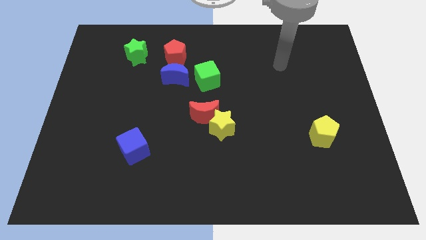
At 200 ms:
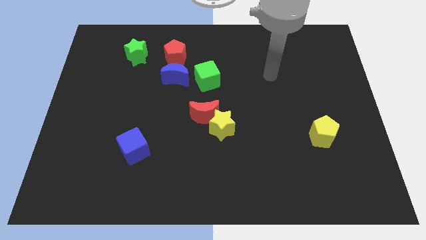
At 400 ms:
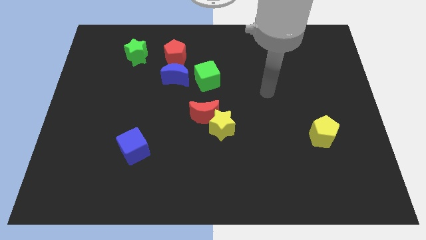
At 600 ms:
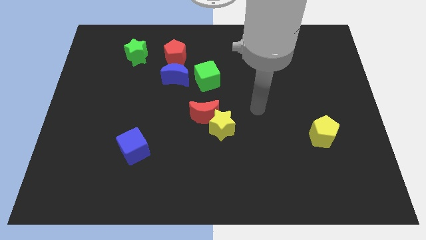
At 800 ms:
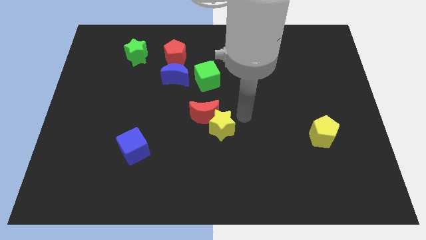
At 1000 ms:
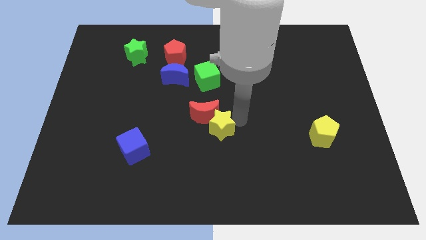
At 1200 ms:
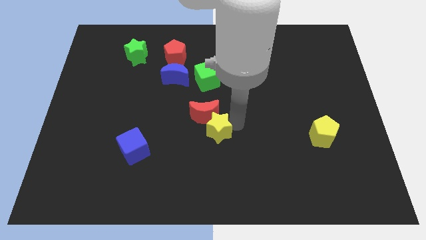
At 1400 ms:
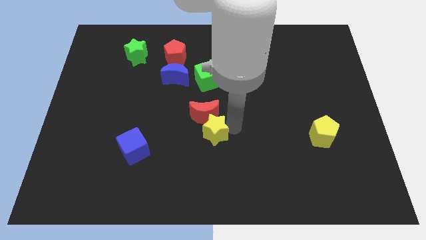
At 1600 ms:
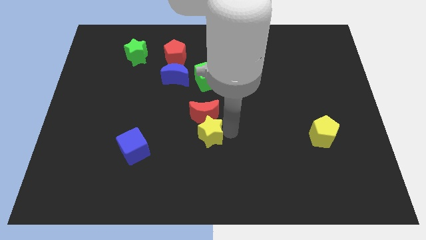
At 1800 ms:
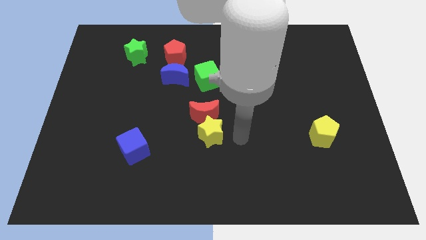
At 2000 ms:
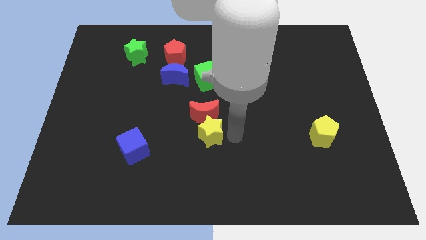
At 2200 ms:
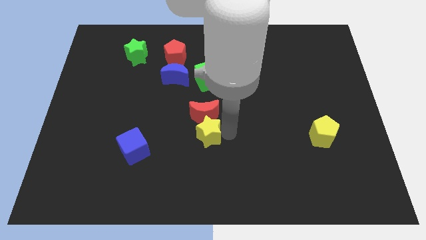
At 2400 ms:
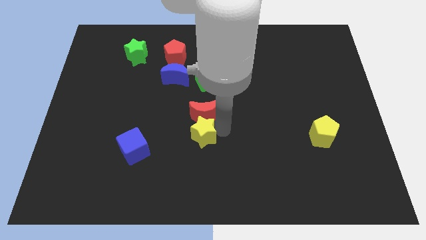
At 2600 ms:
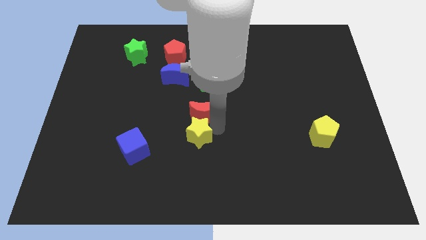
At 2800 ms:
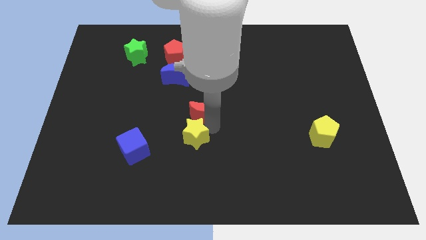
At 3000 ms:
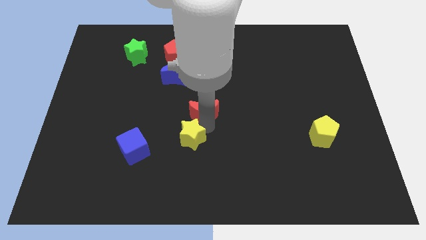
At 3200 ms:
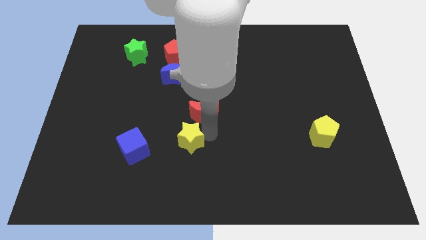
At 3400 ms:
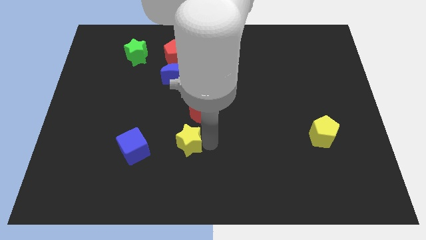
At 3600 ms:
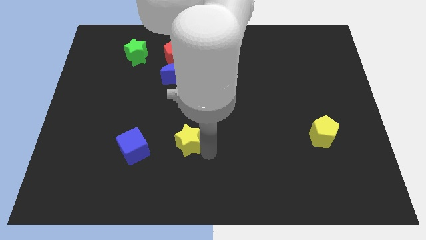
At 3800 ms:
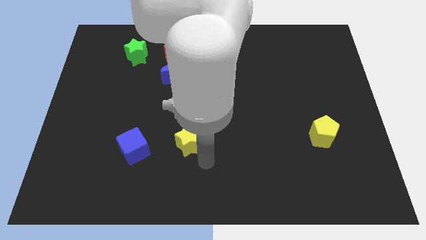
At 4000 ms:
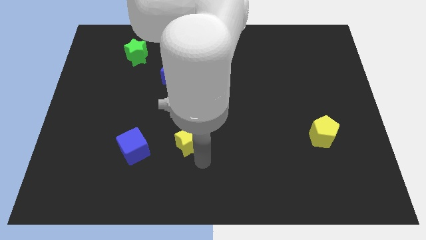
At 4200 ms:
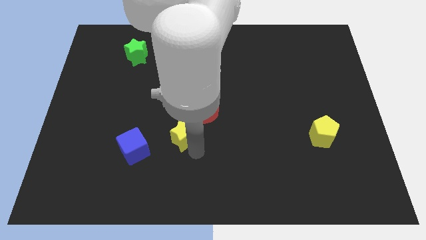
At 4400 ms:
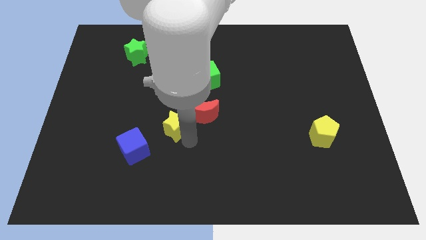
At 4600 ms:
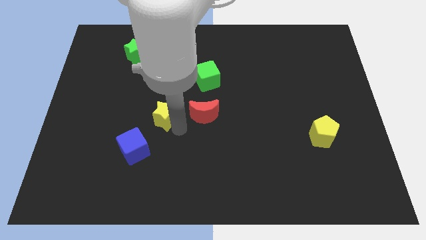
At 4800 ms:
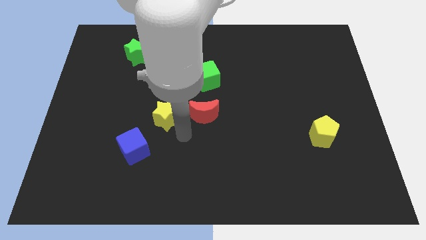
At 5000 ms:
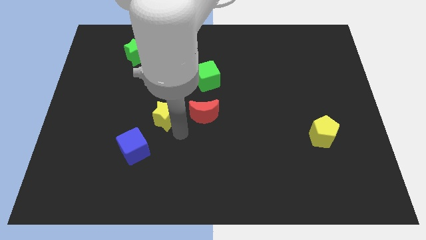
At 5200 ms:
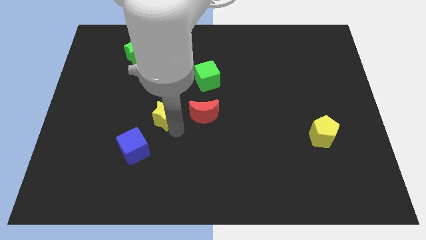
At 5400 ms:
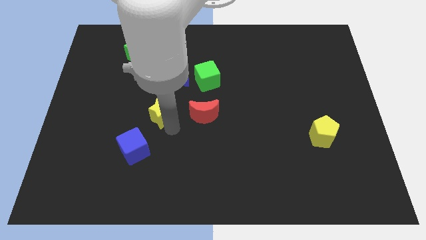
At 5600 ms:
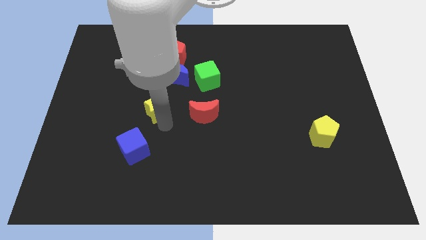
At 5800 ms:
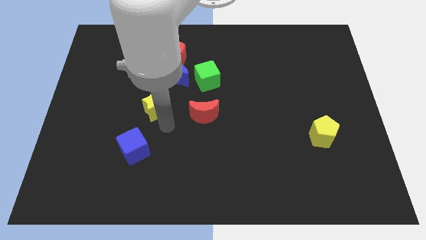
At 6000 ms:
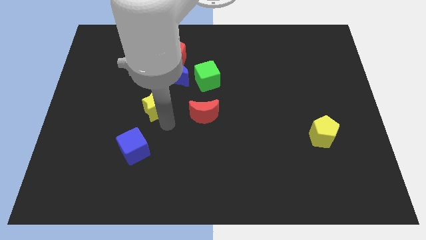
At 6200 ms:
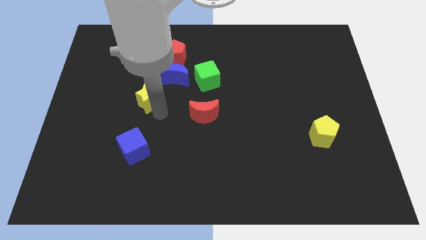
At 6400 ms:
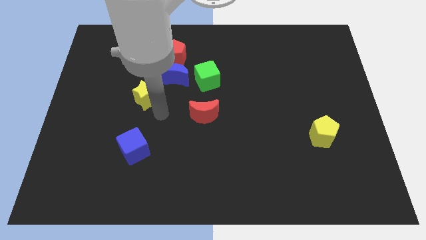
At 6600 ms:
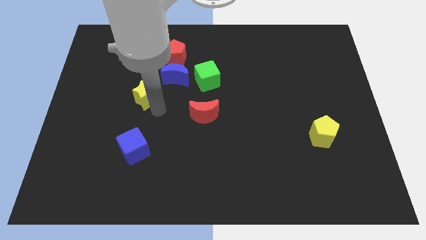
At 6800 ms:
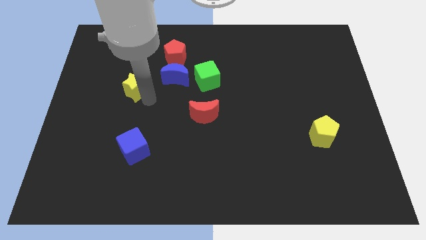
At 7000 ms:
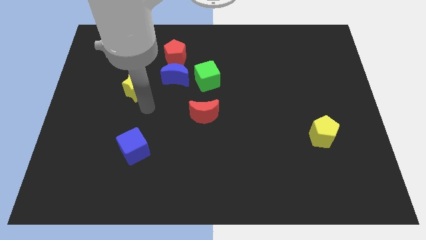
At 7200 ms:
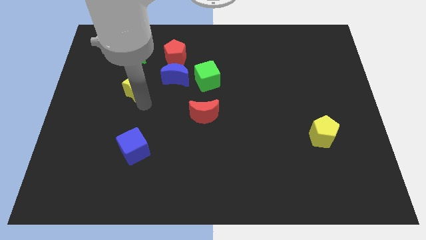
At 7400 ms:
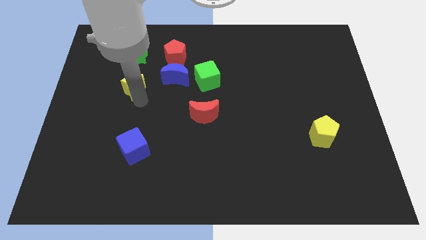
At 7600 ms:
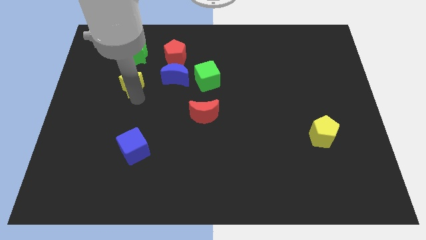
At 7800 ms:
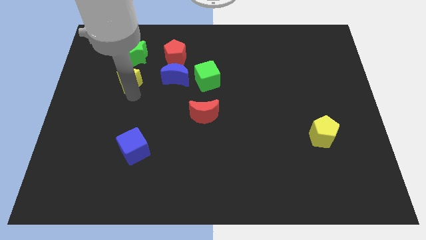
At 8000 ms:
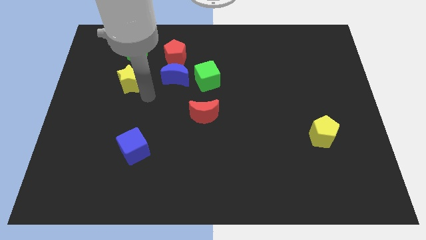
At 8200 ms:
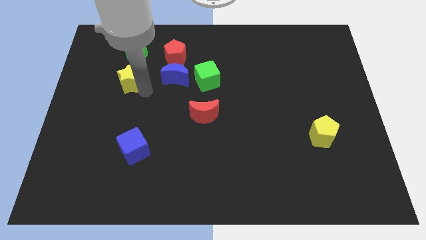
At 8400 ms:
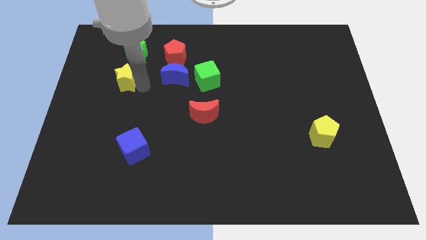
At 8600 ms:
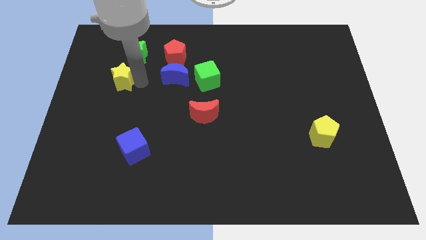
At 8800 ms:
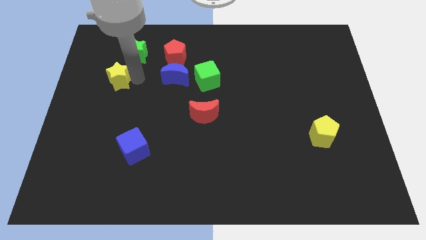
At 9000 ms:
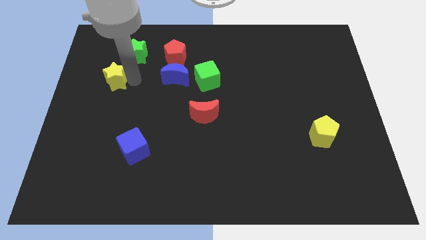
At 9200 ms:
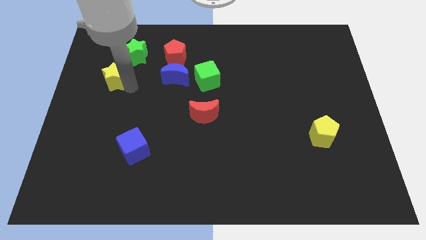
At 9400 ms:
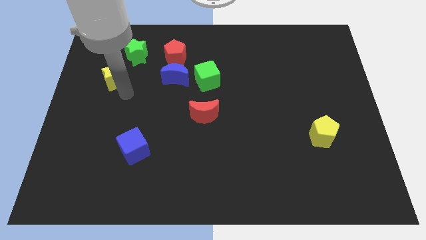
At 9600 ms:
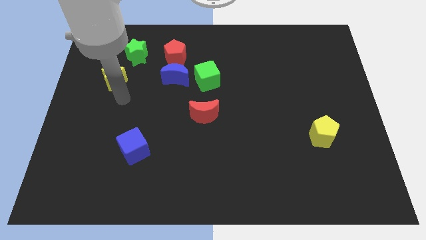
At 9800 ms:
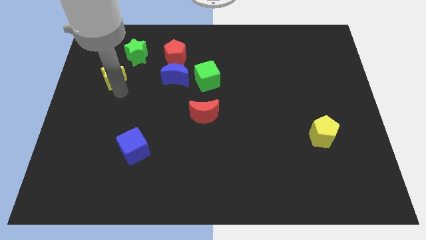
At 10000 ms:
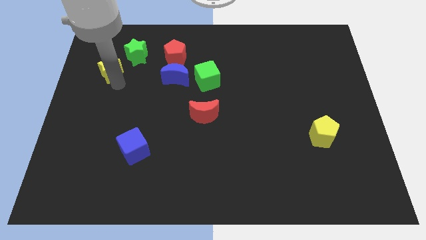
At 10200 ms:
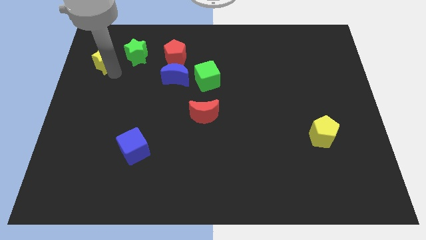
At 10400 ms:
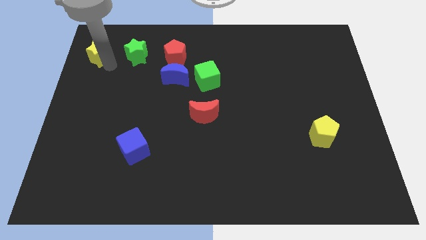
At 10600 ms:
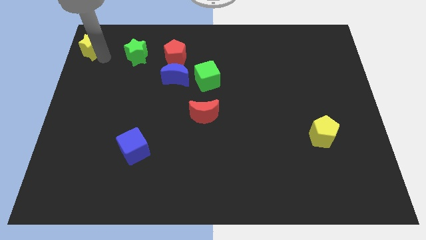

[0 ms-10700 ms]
put the yellow star to the upper left corner

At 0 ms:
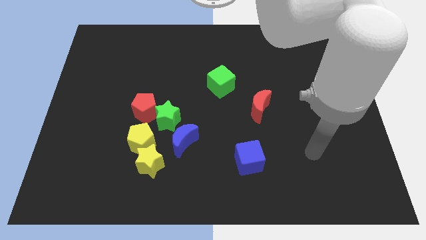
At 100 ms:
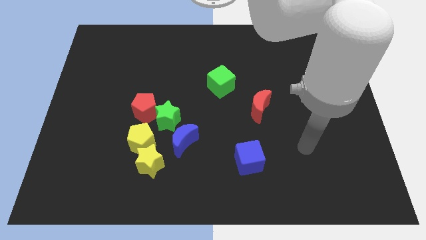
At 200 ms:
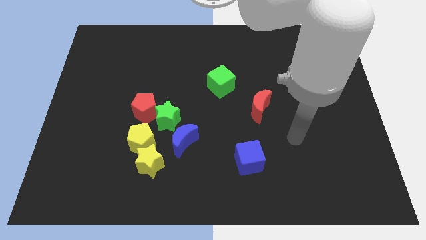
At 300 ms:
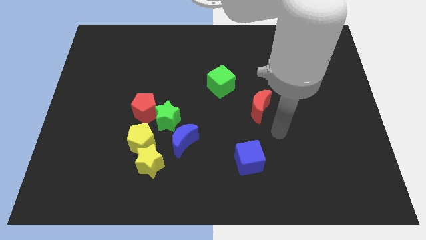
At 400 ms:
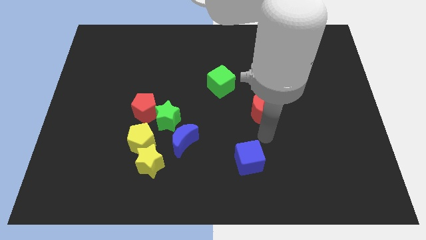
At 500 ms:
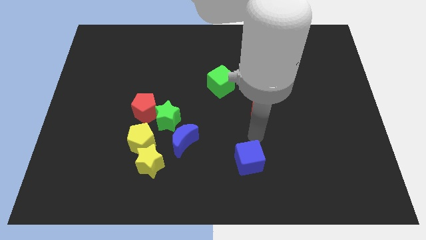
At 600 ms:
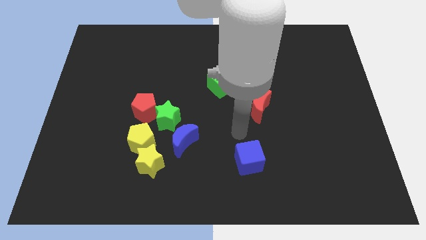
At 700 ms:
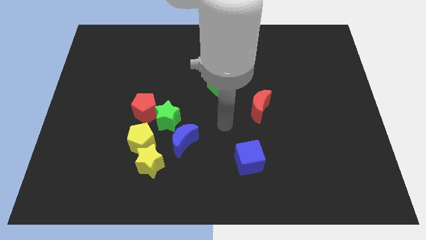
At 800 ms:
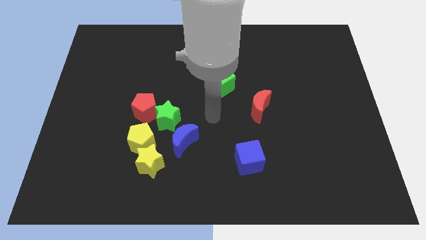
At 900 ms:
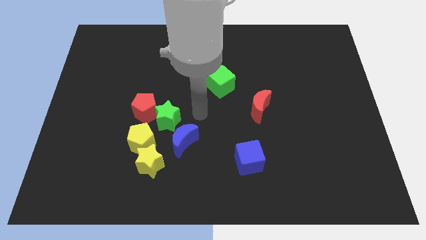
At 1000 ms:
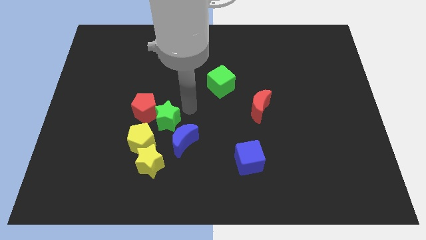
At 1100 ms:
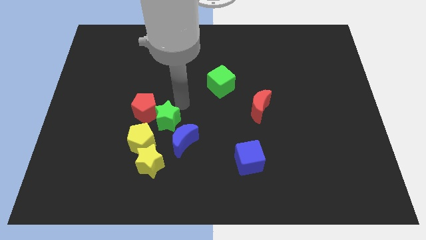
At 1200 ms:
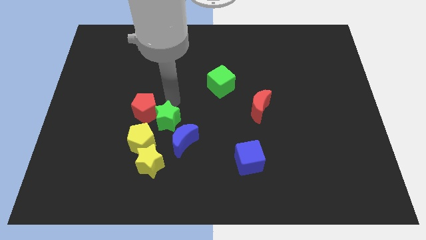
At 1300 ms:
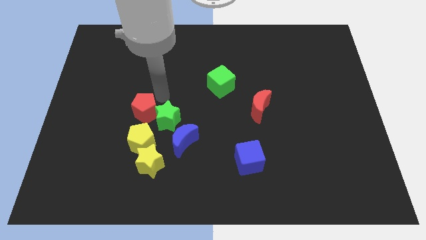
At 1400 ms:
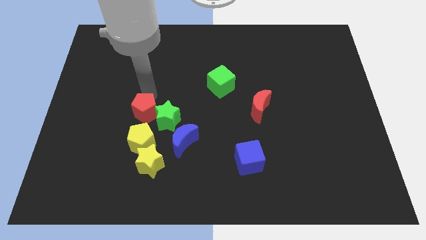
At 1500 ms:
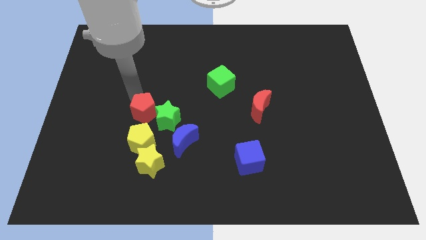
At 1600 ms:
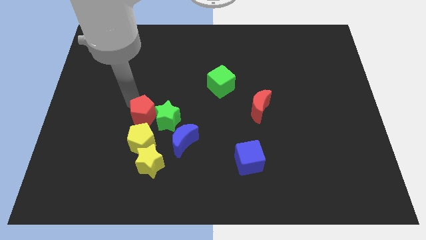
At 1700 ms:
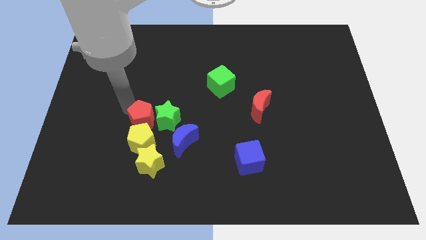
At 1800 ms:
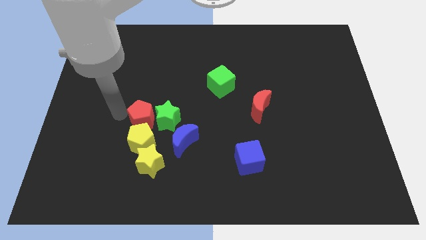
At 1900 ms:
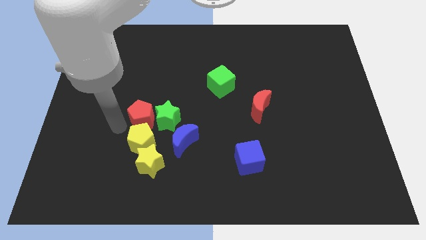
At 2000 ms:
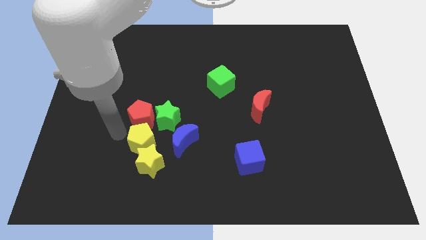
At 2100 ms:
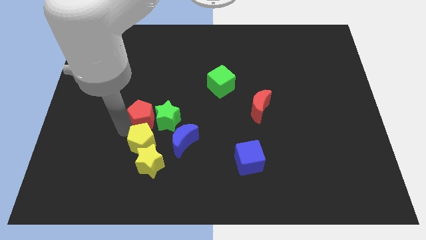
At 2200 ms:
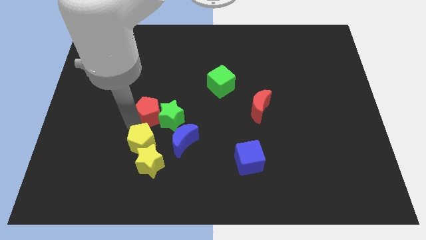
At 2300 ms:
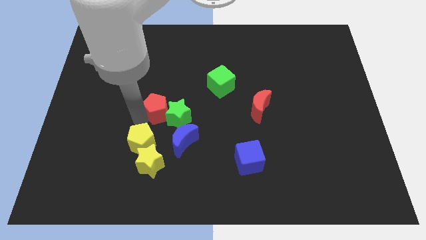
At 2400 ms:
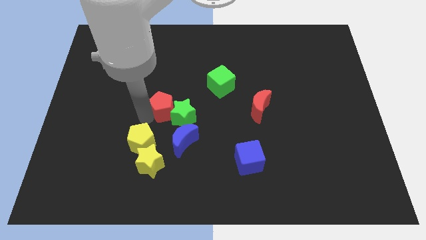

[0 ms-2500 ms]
push the red pentagon to the center
